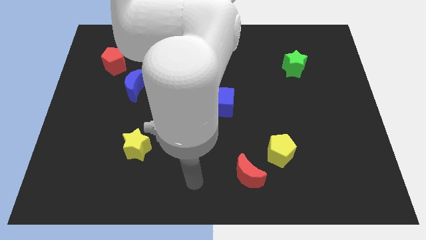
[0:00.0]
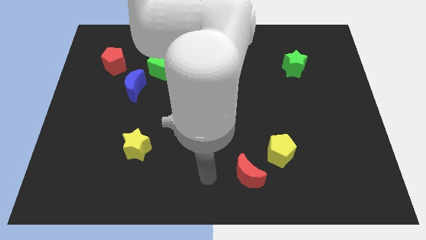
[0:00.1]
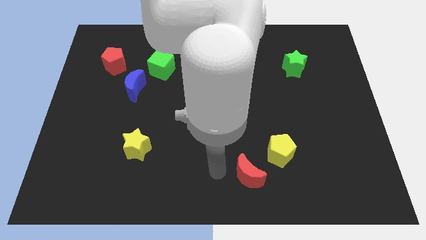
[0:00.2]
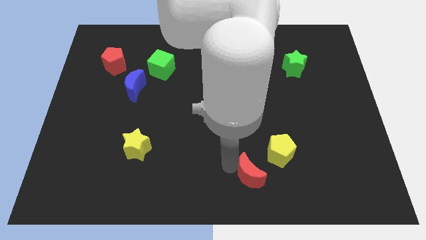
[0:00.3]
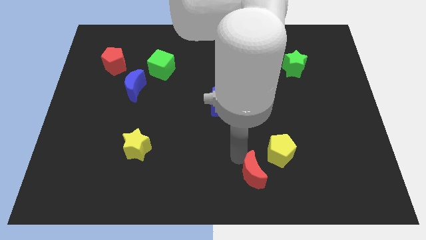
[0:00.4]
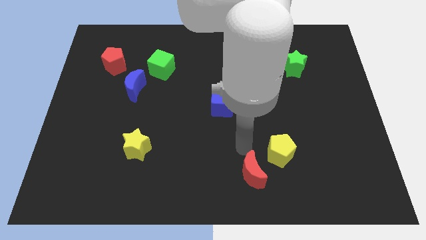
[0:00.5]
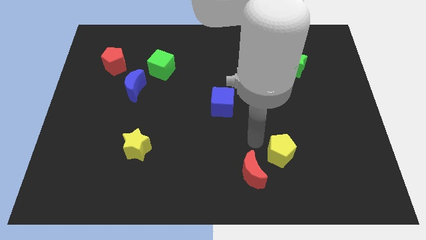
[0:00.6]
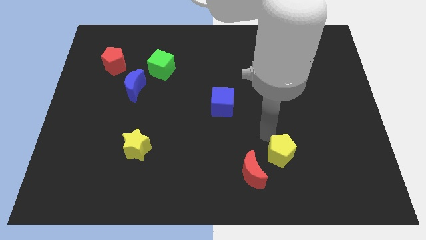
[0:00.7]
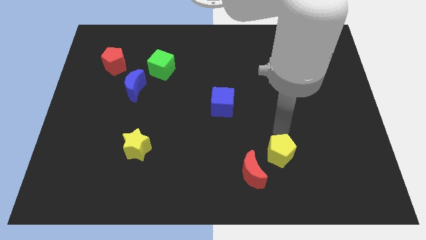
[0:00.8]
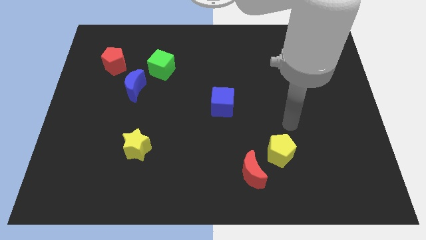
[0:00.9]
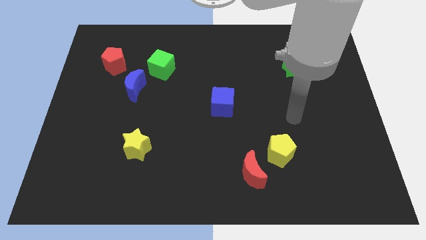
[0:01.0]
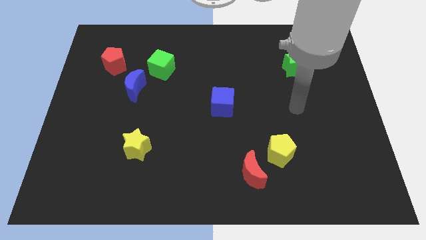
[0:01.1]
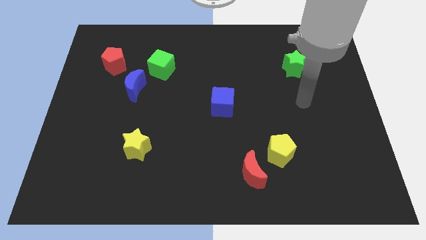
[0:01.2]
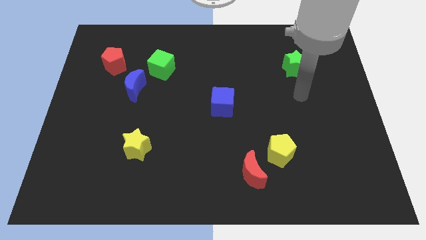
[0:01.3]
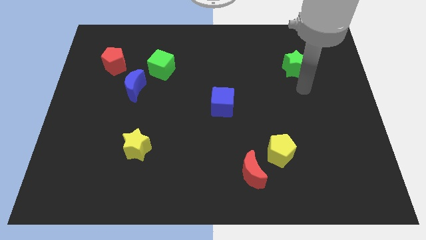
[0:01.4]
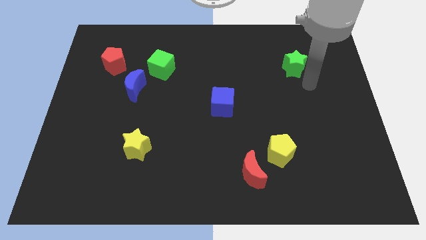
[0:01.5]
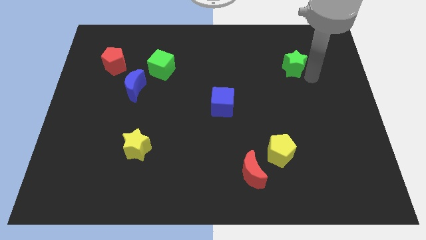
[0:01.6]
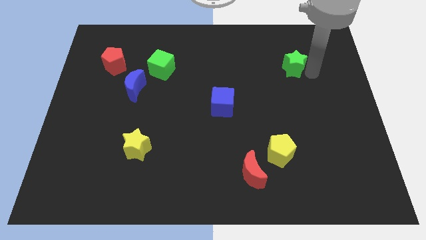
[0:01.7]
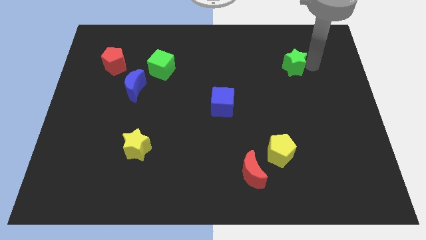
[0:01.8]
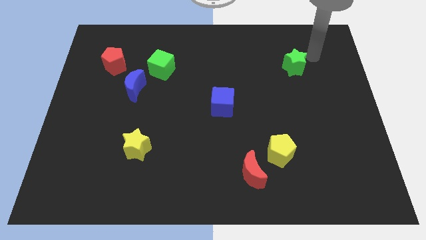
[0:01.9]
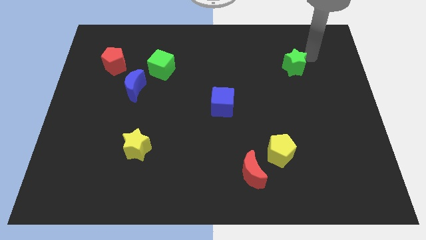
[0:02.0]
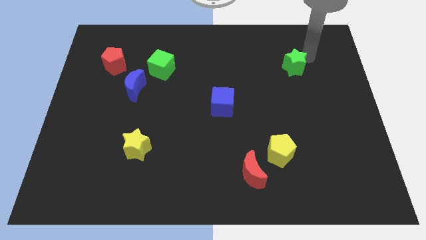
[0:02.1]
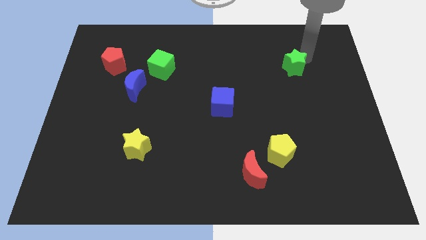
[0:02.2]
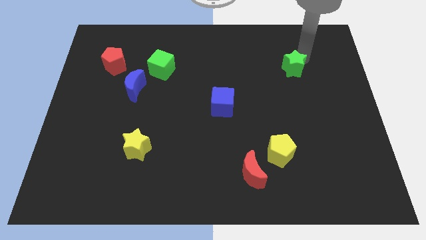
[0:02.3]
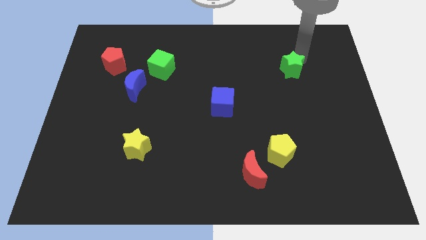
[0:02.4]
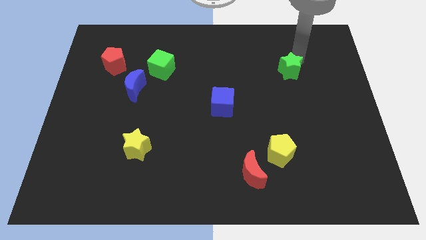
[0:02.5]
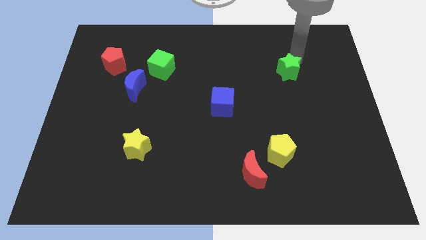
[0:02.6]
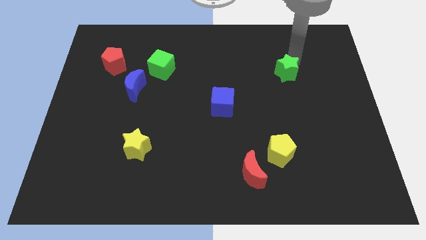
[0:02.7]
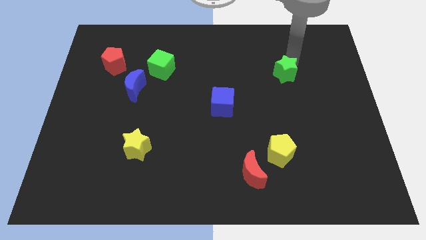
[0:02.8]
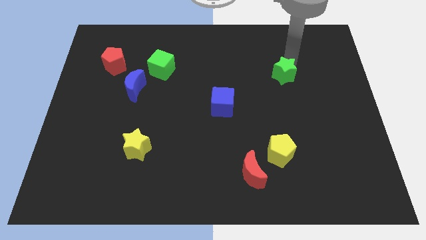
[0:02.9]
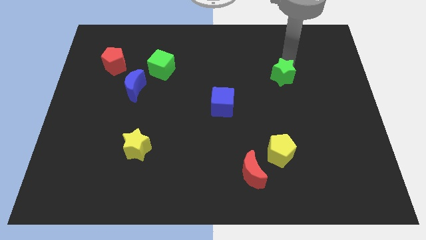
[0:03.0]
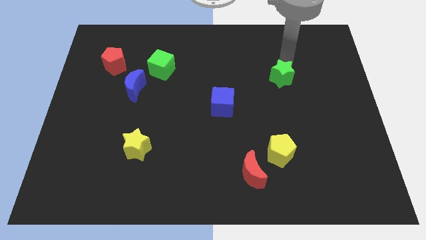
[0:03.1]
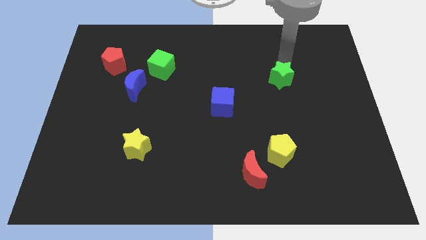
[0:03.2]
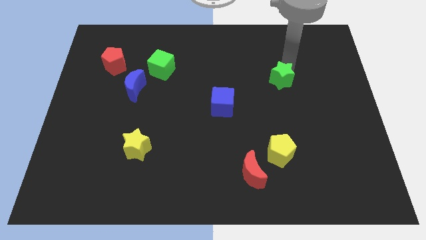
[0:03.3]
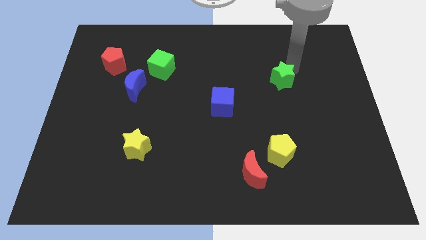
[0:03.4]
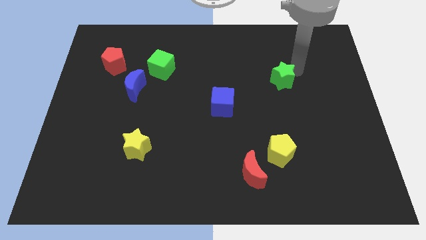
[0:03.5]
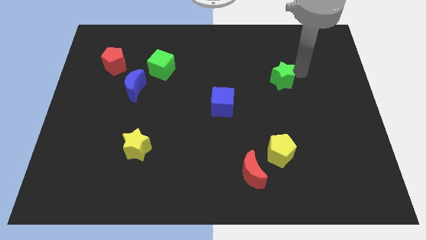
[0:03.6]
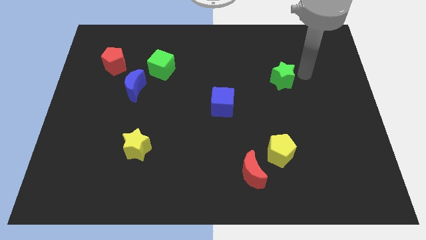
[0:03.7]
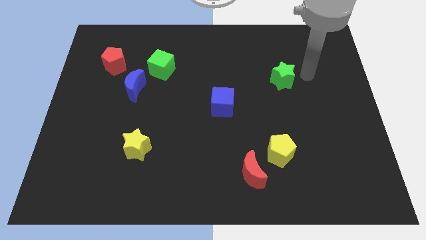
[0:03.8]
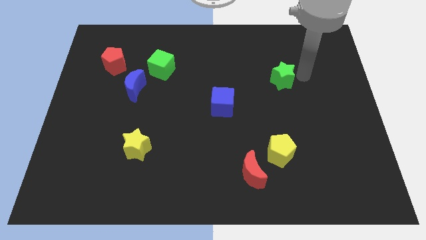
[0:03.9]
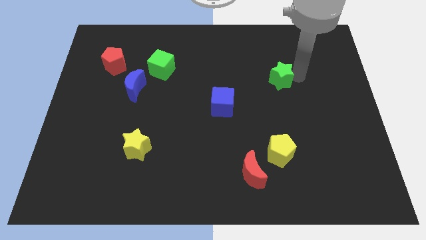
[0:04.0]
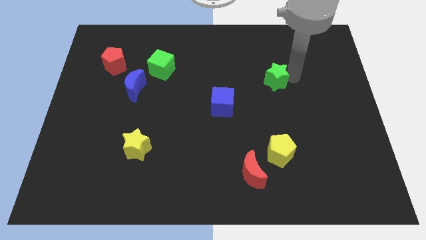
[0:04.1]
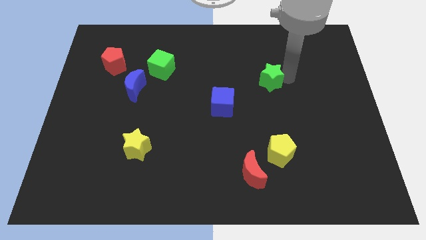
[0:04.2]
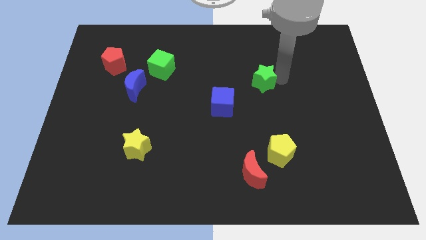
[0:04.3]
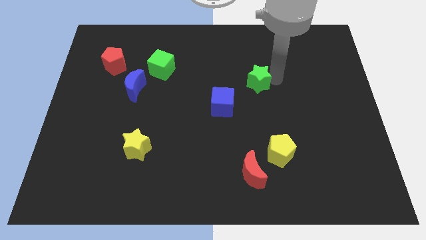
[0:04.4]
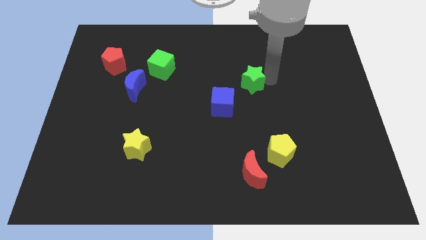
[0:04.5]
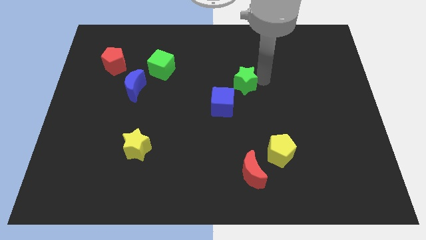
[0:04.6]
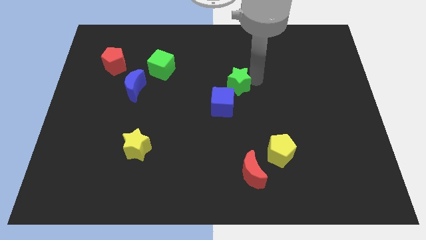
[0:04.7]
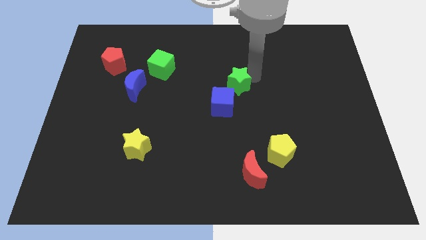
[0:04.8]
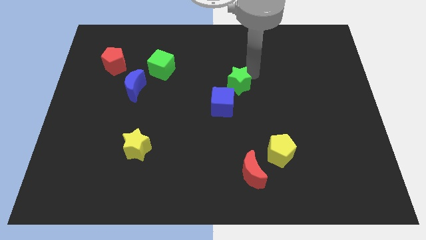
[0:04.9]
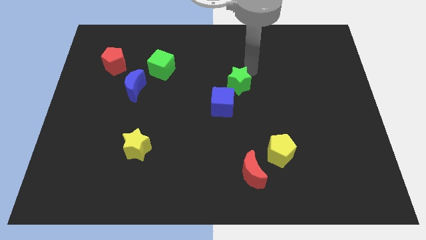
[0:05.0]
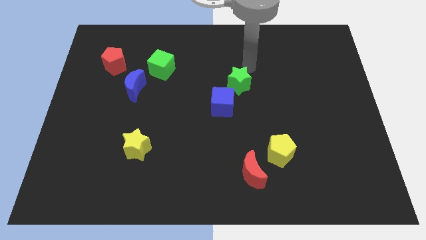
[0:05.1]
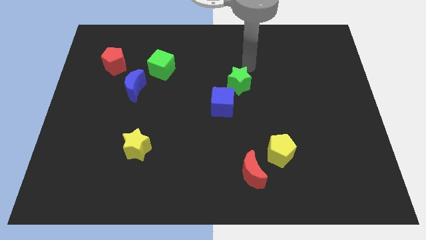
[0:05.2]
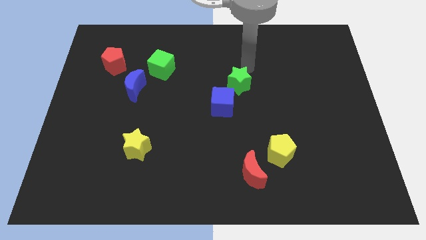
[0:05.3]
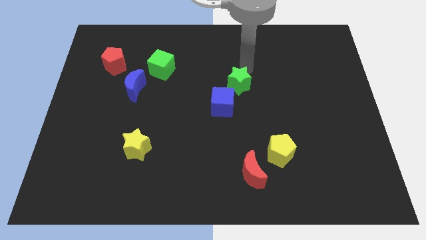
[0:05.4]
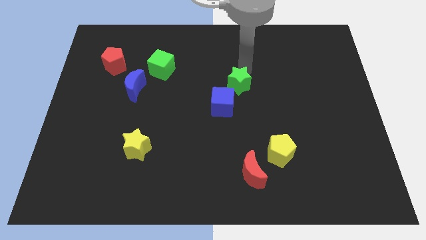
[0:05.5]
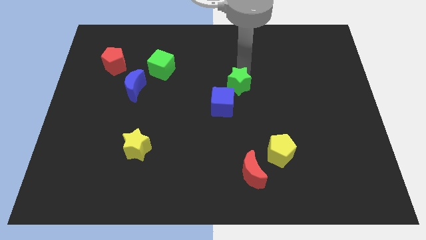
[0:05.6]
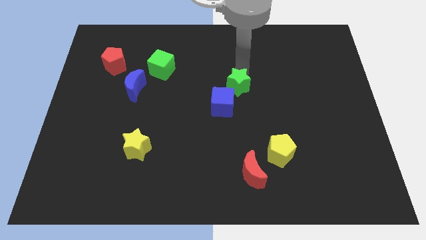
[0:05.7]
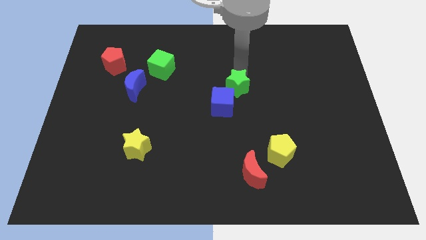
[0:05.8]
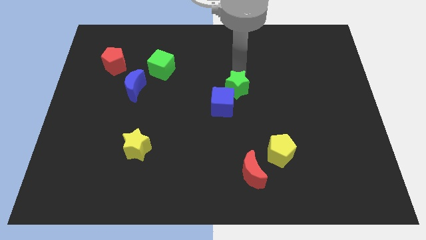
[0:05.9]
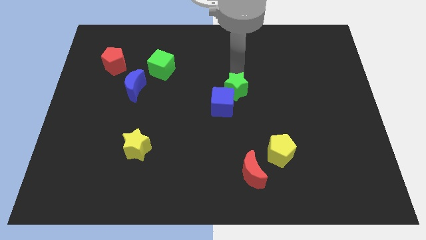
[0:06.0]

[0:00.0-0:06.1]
slide the green star next to the blue cube

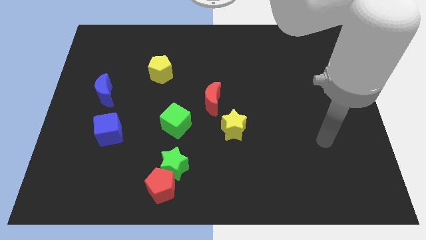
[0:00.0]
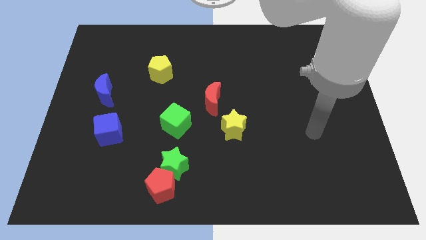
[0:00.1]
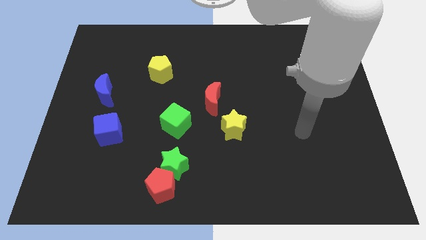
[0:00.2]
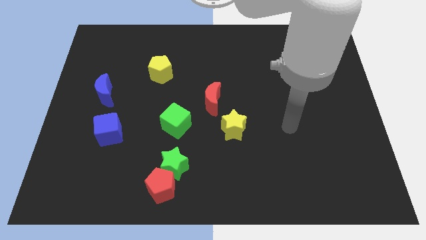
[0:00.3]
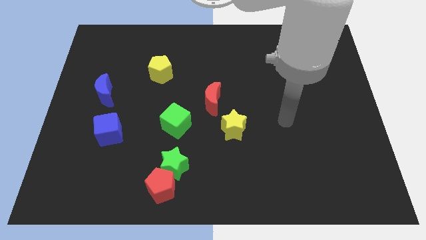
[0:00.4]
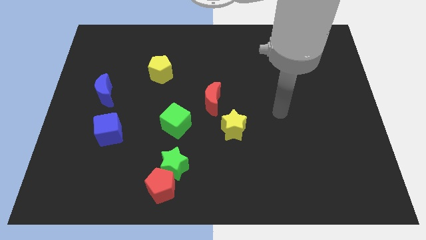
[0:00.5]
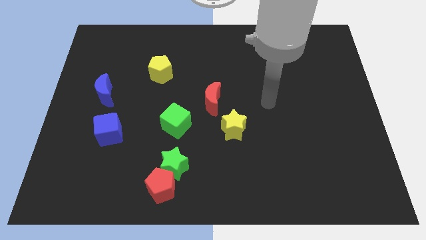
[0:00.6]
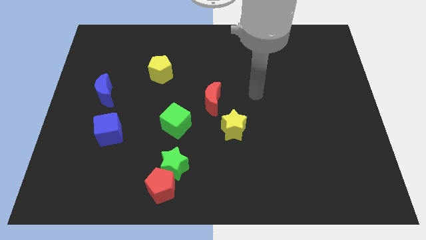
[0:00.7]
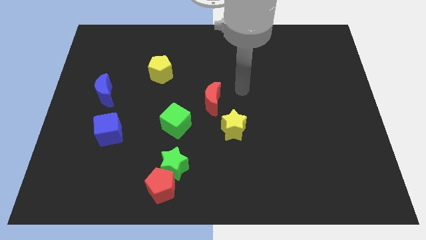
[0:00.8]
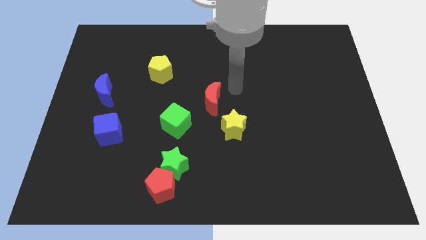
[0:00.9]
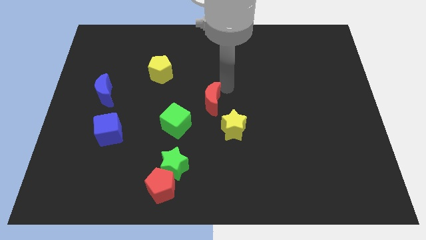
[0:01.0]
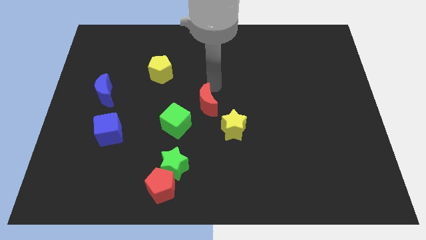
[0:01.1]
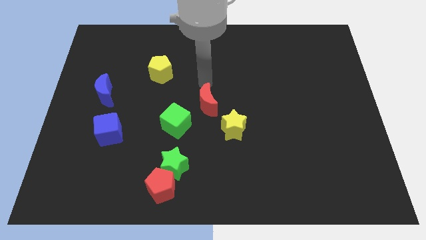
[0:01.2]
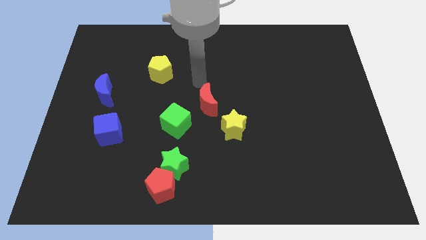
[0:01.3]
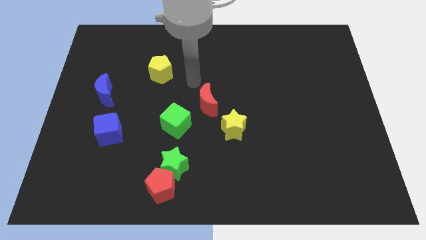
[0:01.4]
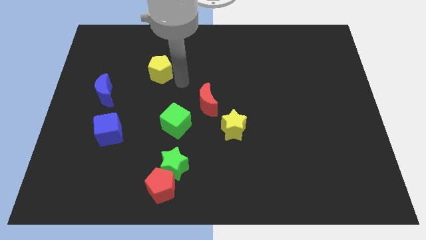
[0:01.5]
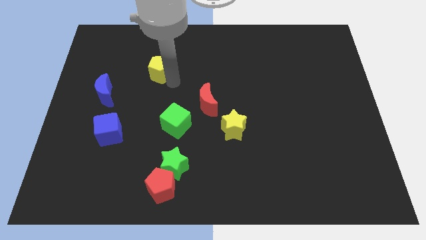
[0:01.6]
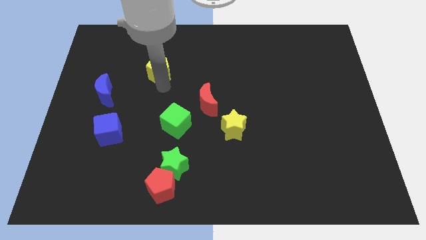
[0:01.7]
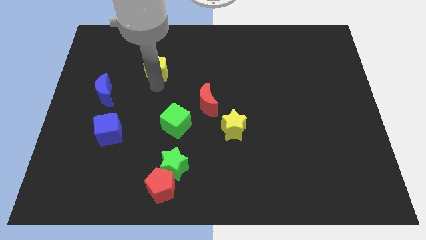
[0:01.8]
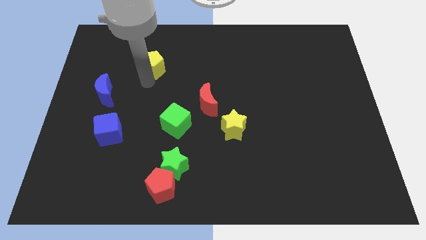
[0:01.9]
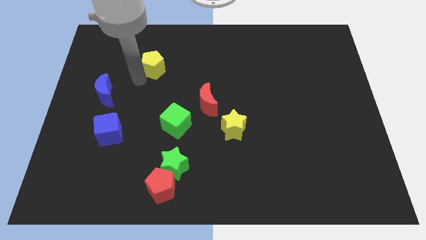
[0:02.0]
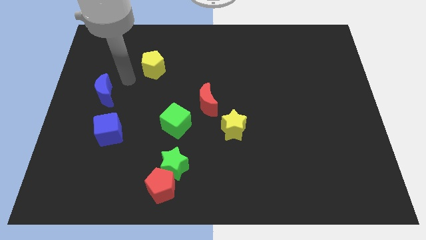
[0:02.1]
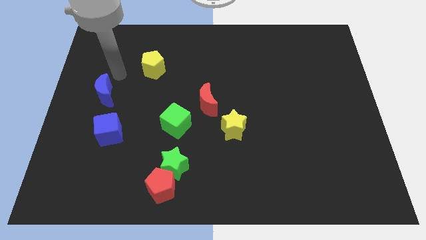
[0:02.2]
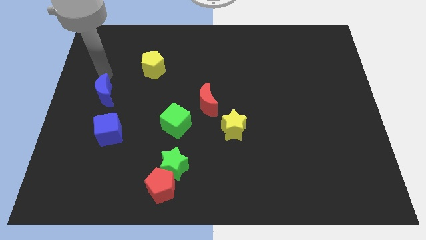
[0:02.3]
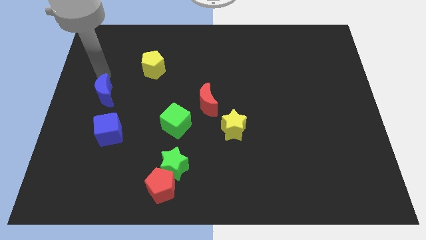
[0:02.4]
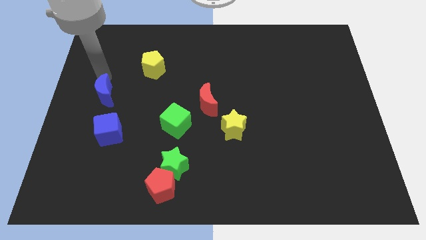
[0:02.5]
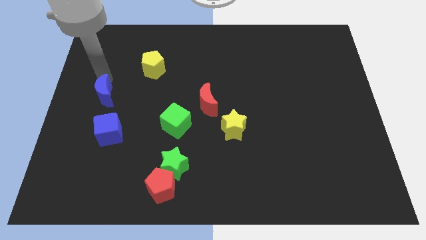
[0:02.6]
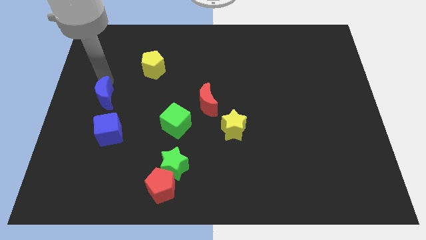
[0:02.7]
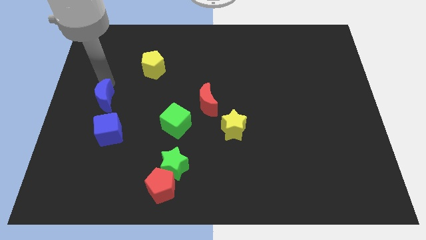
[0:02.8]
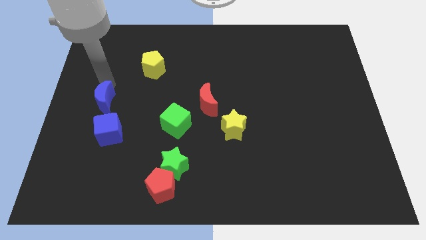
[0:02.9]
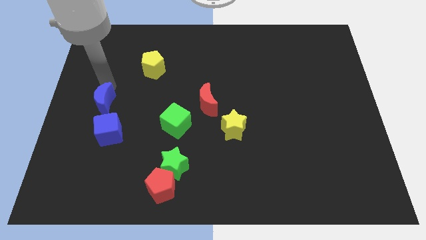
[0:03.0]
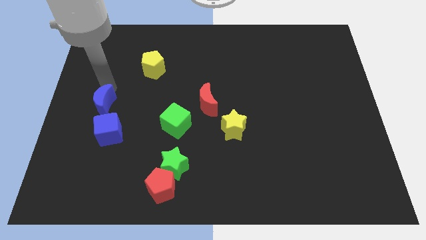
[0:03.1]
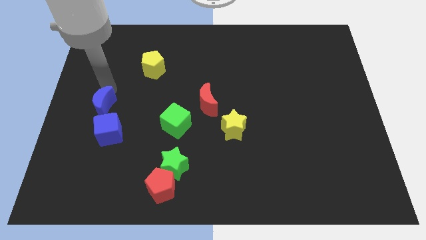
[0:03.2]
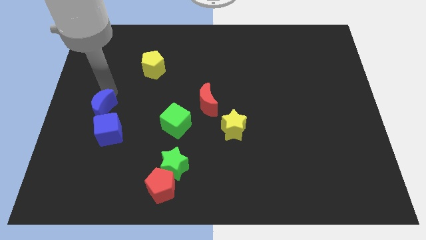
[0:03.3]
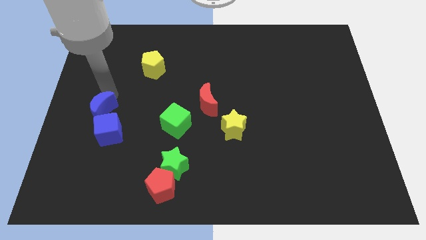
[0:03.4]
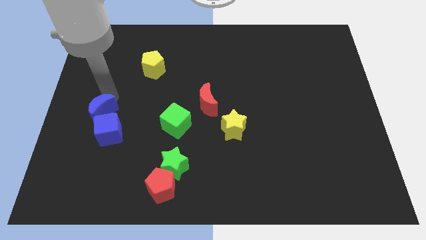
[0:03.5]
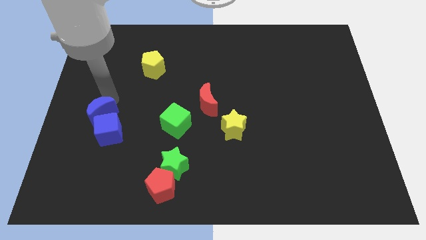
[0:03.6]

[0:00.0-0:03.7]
push the blue moon next to the blue cube
